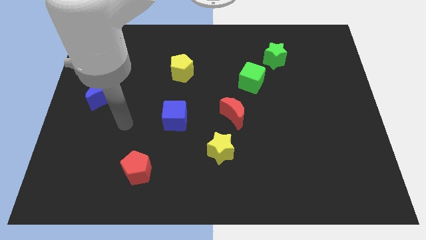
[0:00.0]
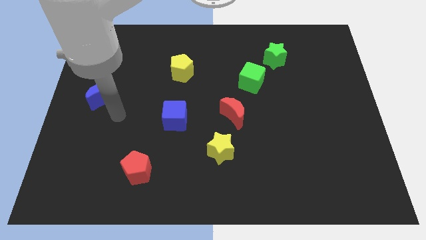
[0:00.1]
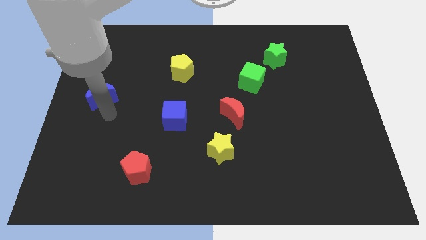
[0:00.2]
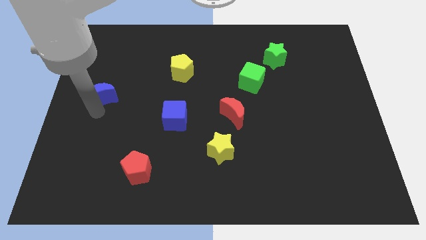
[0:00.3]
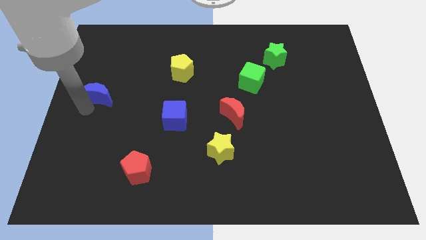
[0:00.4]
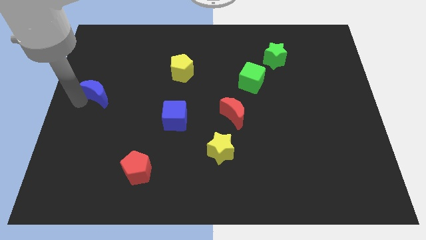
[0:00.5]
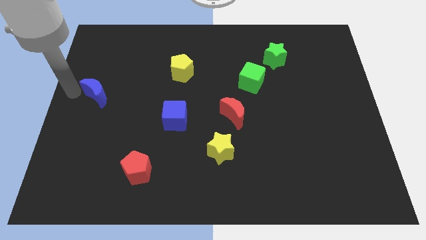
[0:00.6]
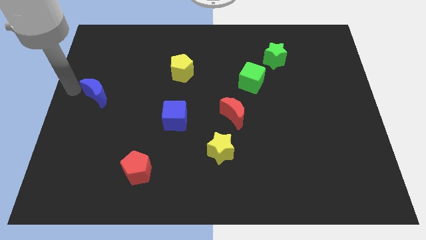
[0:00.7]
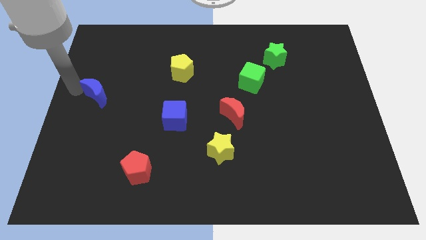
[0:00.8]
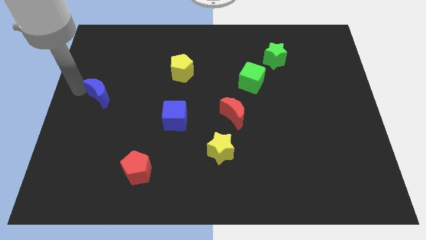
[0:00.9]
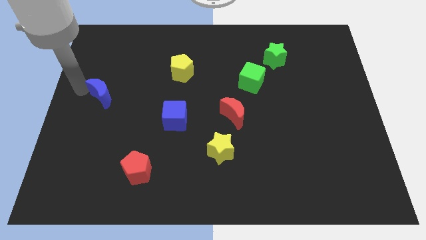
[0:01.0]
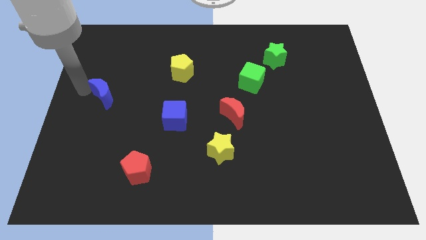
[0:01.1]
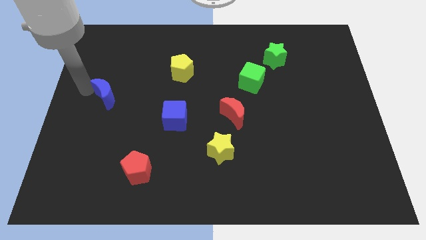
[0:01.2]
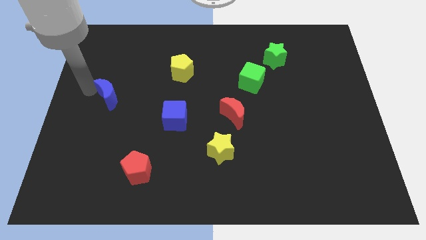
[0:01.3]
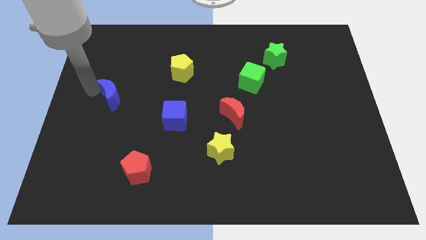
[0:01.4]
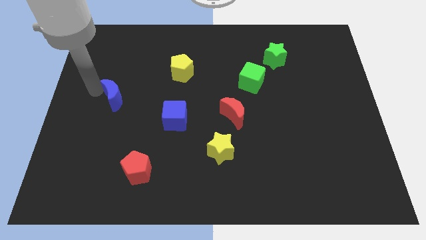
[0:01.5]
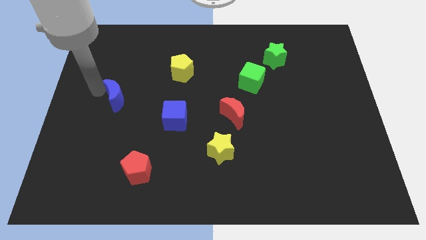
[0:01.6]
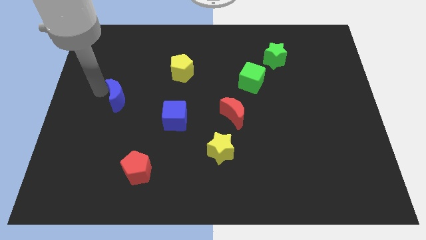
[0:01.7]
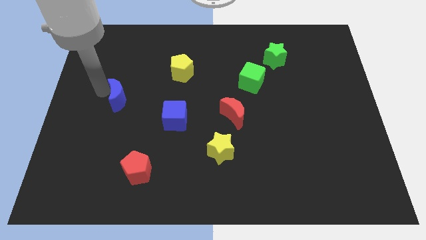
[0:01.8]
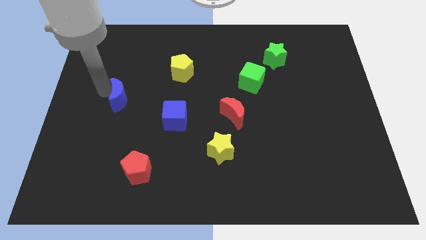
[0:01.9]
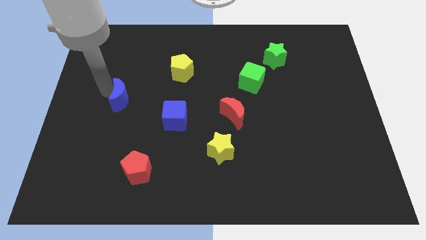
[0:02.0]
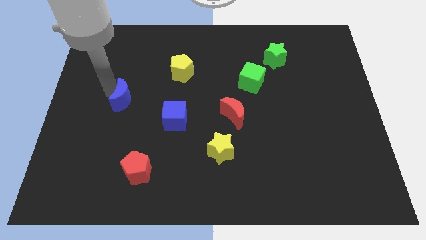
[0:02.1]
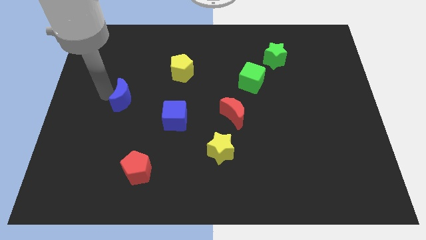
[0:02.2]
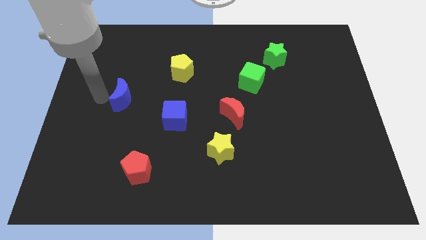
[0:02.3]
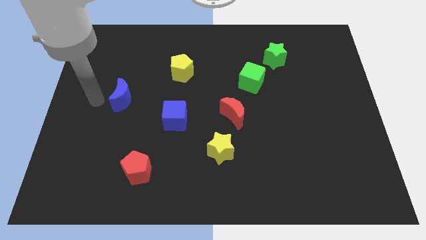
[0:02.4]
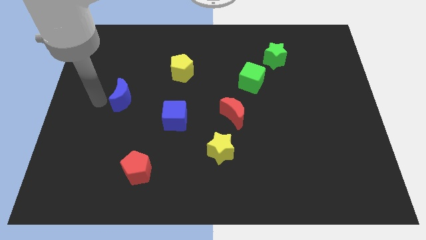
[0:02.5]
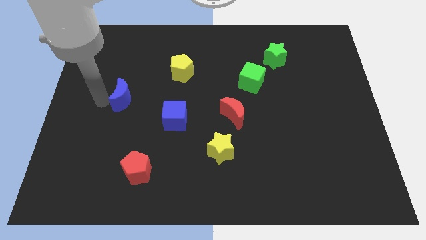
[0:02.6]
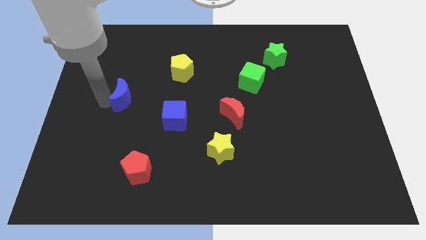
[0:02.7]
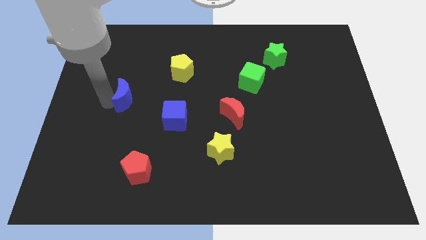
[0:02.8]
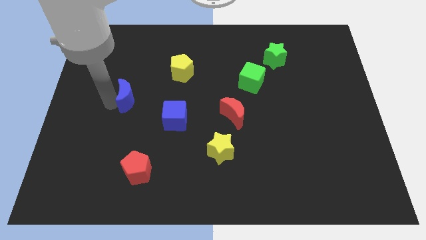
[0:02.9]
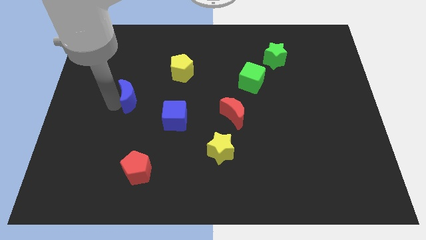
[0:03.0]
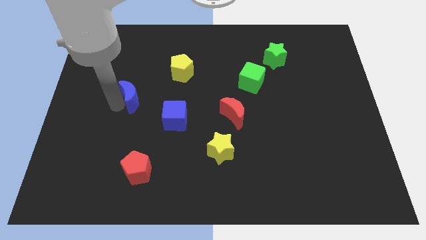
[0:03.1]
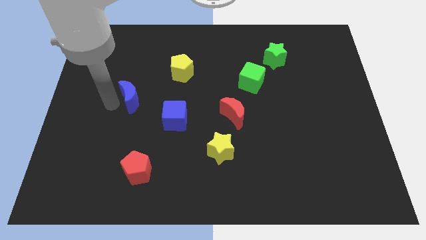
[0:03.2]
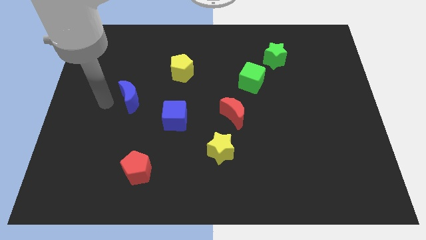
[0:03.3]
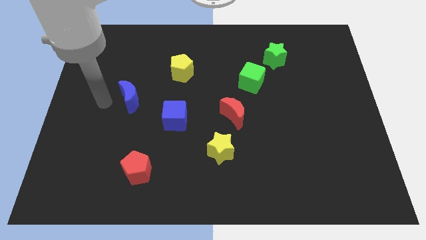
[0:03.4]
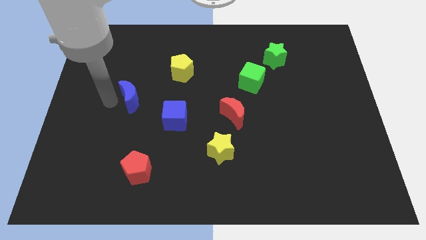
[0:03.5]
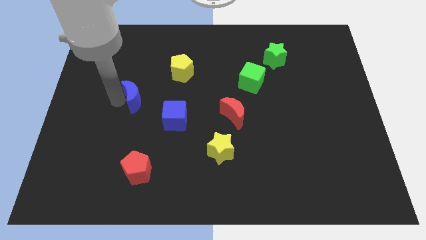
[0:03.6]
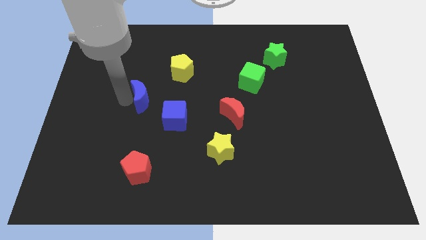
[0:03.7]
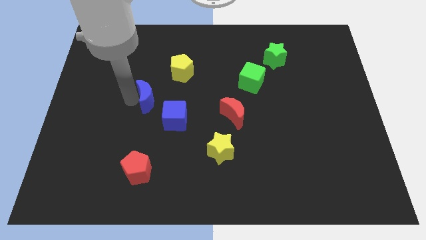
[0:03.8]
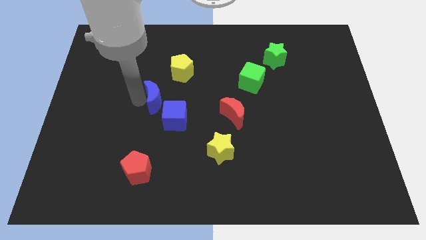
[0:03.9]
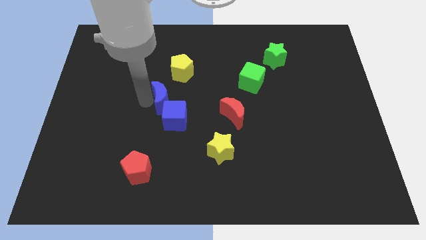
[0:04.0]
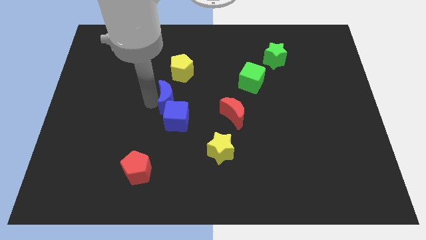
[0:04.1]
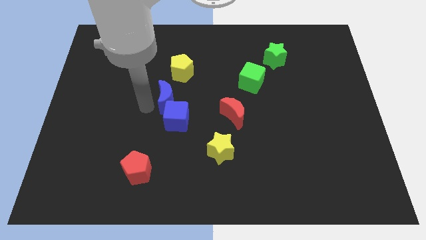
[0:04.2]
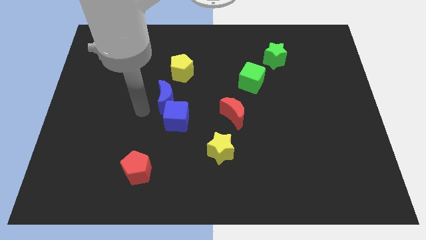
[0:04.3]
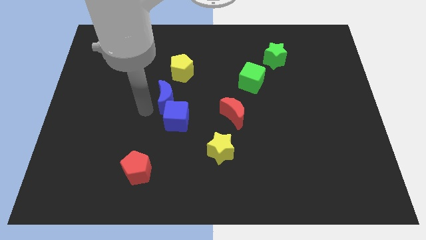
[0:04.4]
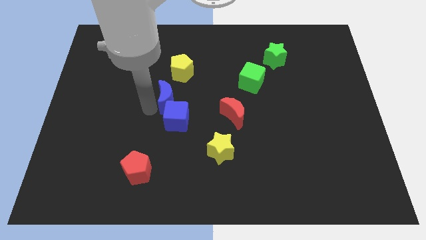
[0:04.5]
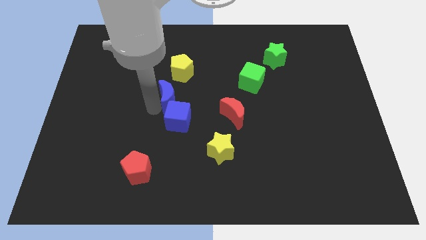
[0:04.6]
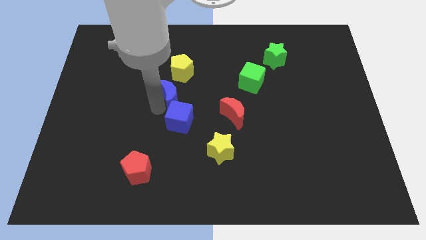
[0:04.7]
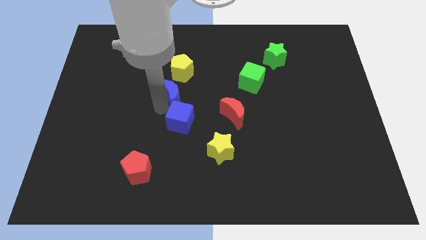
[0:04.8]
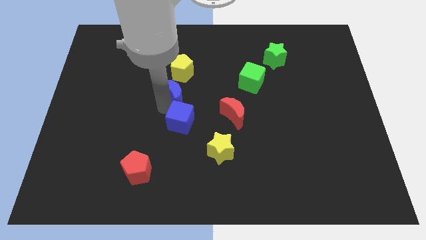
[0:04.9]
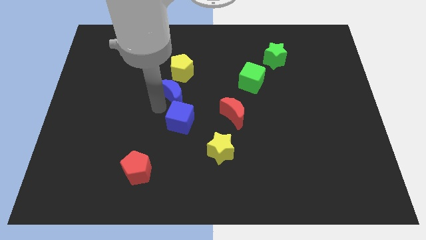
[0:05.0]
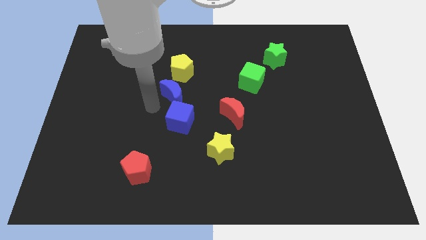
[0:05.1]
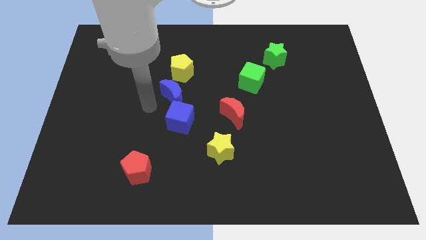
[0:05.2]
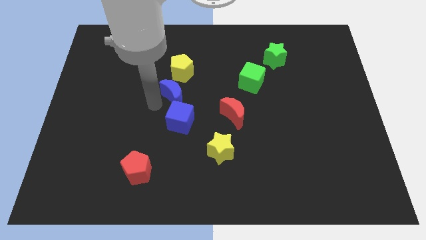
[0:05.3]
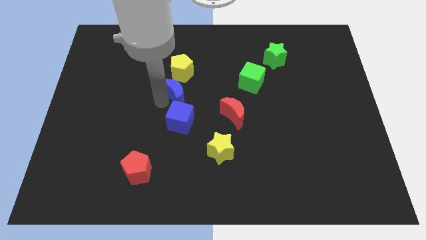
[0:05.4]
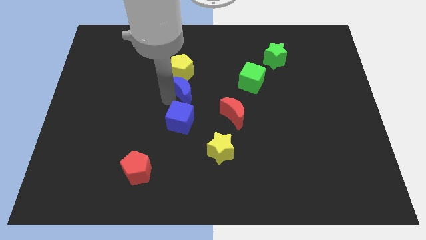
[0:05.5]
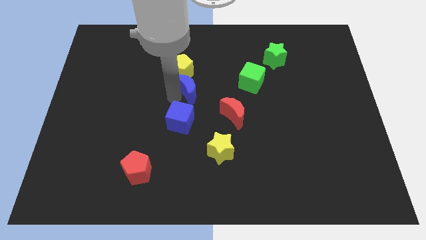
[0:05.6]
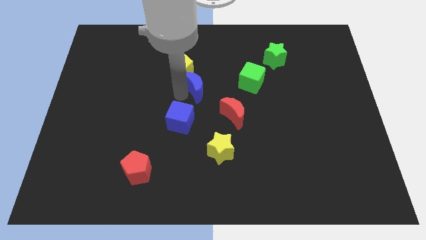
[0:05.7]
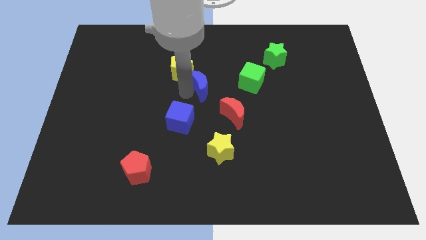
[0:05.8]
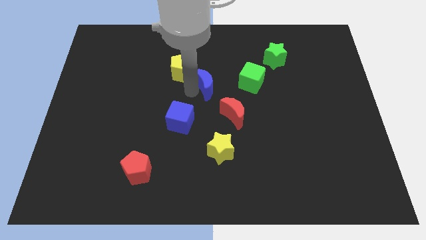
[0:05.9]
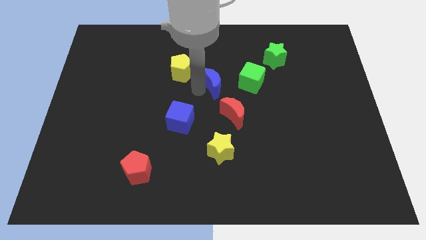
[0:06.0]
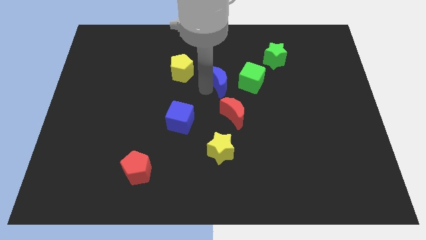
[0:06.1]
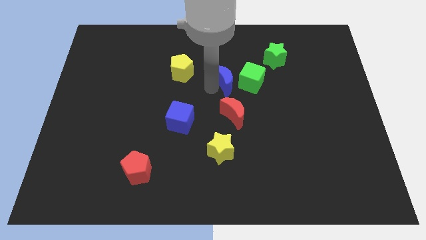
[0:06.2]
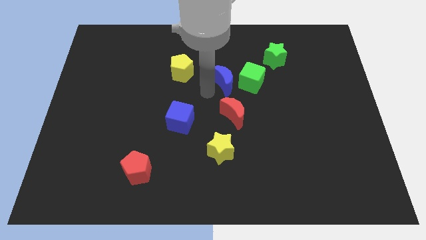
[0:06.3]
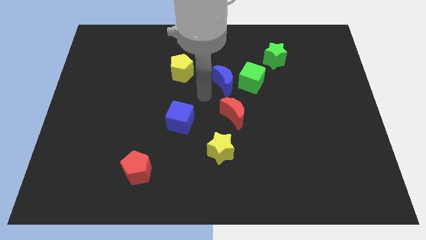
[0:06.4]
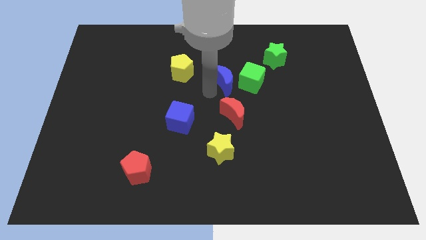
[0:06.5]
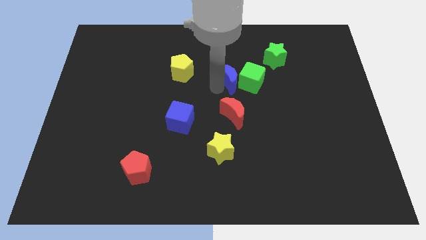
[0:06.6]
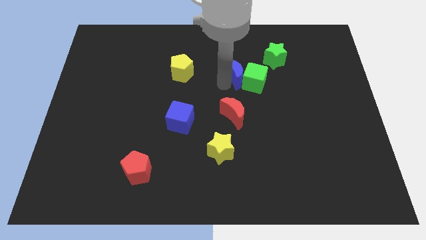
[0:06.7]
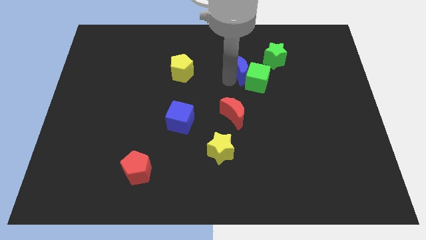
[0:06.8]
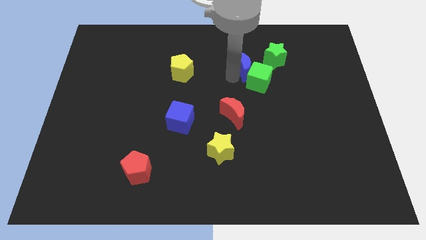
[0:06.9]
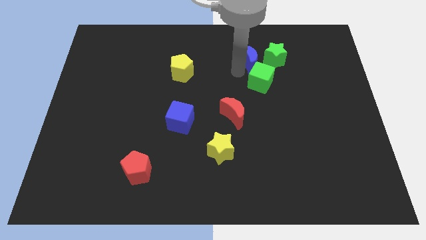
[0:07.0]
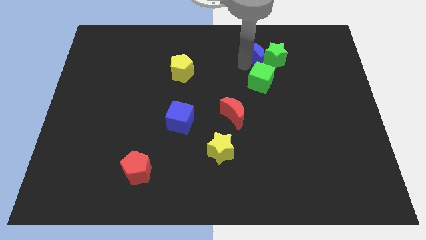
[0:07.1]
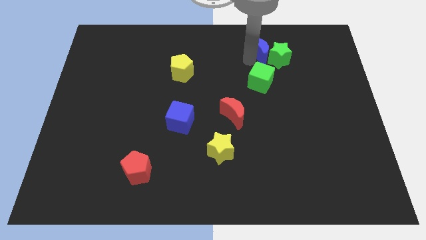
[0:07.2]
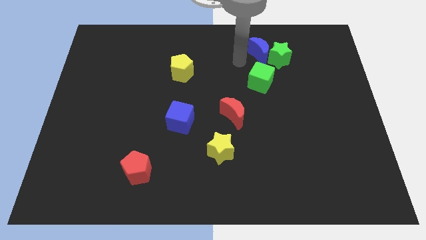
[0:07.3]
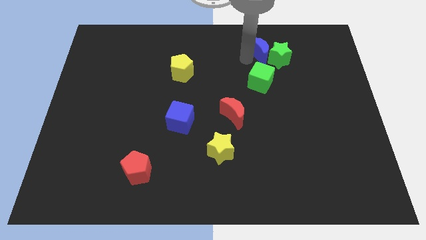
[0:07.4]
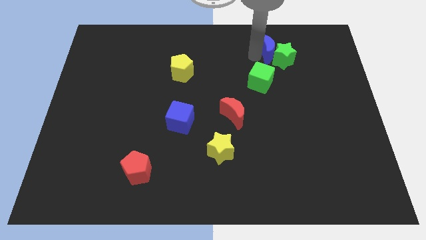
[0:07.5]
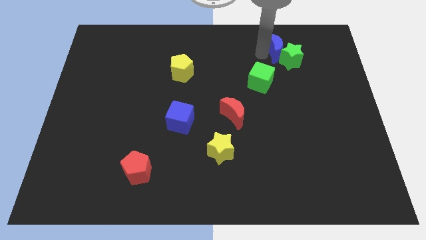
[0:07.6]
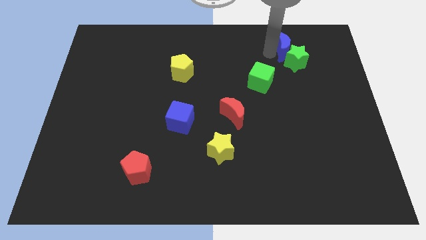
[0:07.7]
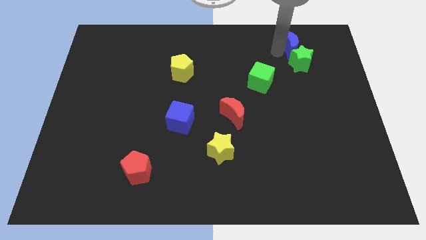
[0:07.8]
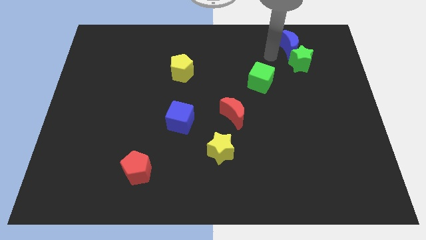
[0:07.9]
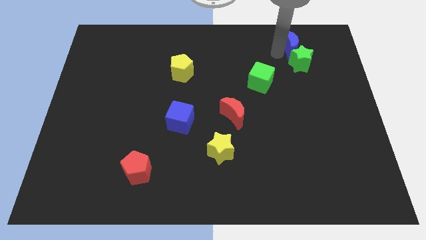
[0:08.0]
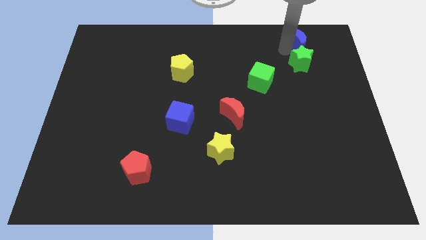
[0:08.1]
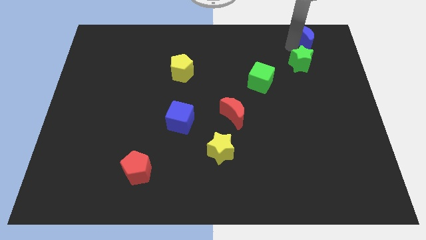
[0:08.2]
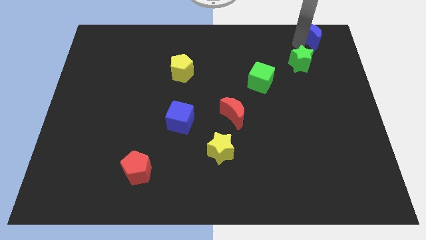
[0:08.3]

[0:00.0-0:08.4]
move the blue moon to the top right corner
